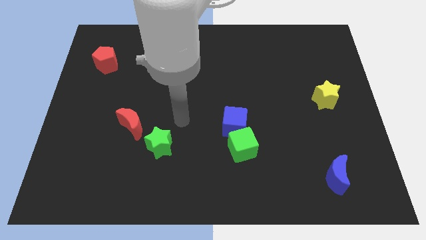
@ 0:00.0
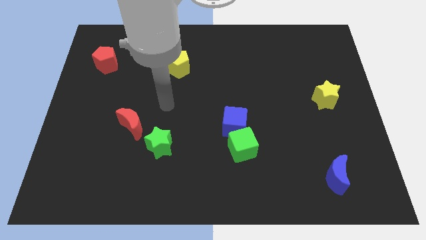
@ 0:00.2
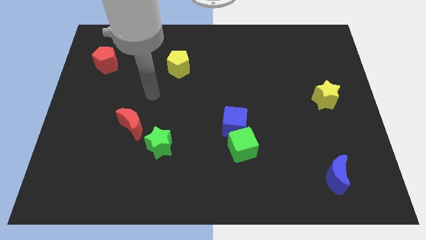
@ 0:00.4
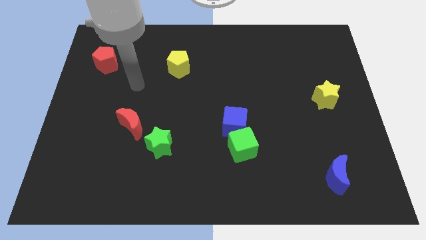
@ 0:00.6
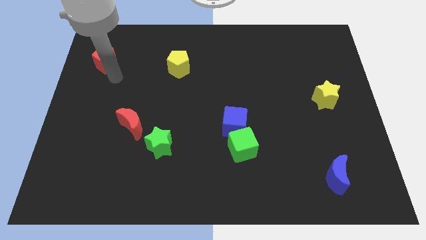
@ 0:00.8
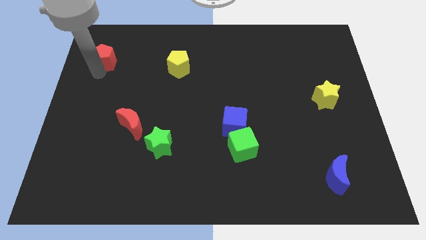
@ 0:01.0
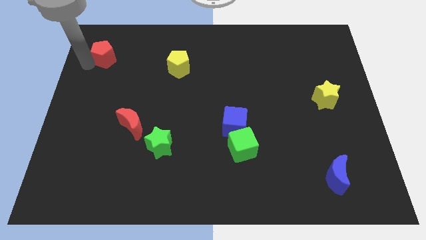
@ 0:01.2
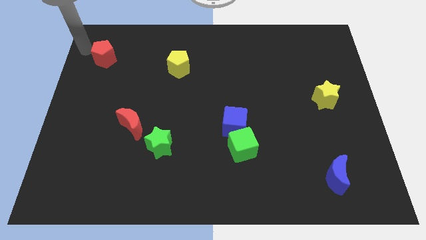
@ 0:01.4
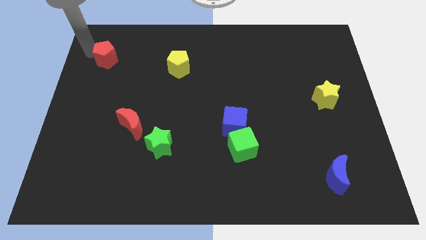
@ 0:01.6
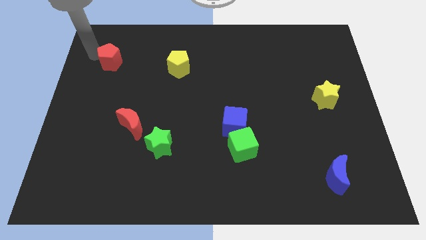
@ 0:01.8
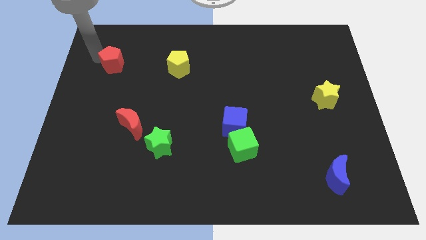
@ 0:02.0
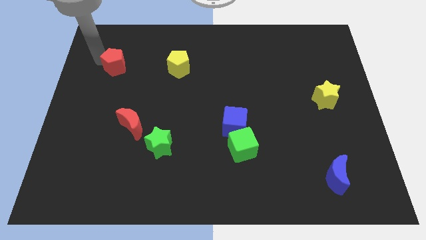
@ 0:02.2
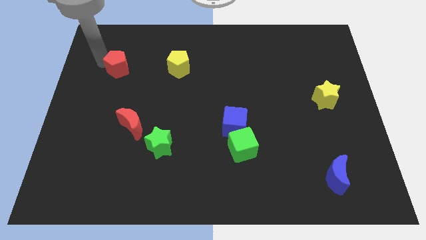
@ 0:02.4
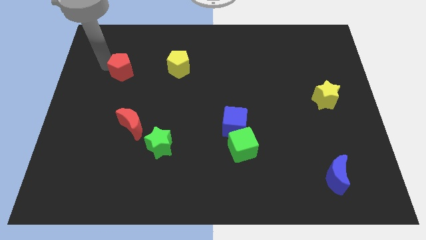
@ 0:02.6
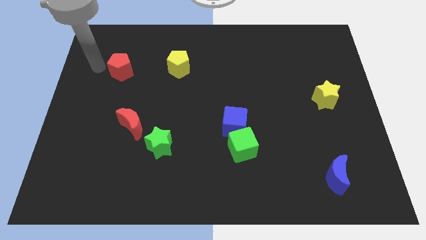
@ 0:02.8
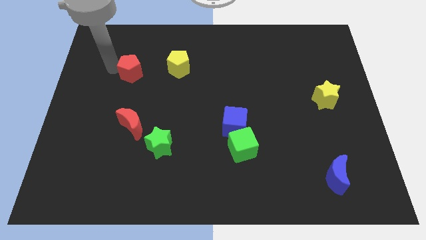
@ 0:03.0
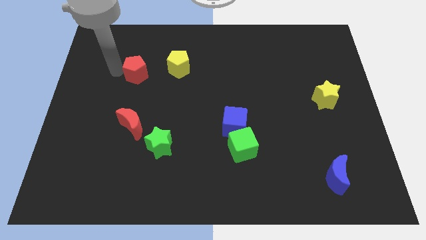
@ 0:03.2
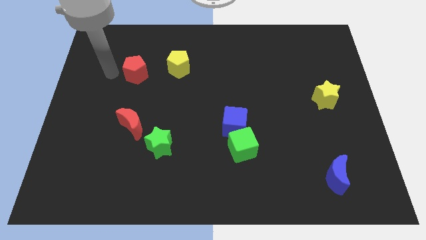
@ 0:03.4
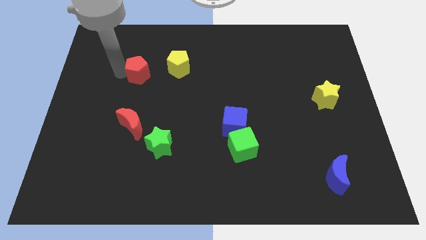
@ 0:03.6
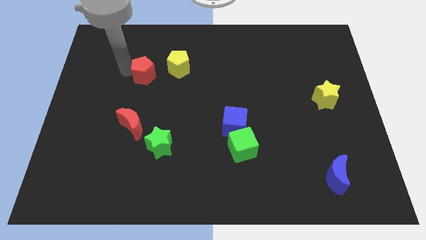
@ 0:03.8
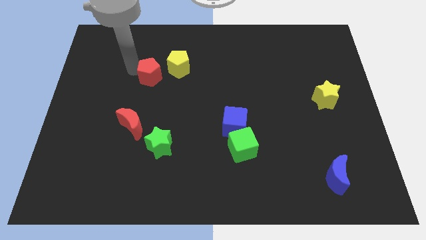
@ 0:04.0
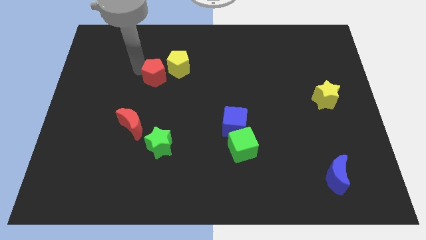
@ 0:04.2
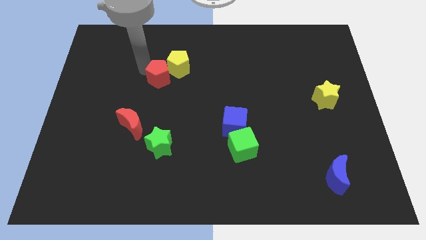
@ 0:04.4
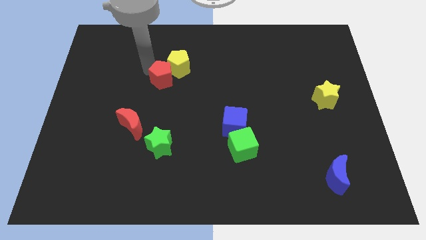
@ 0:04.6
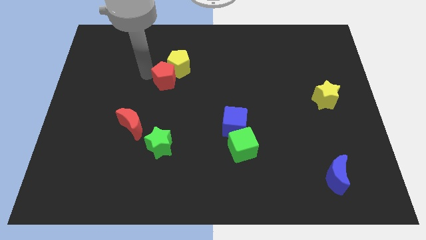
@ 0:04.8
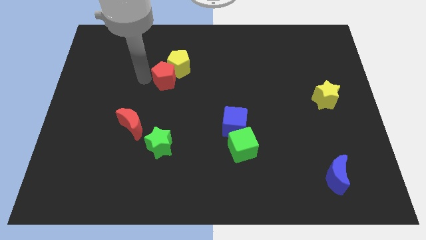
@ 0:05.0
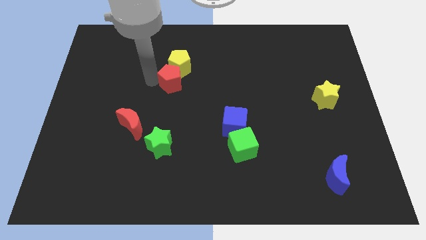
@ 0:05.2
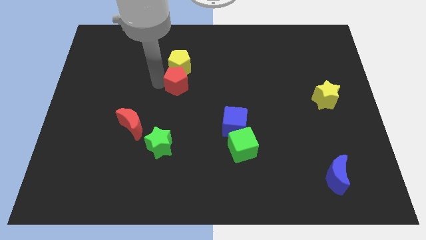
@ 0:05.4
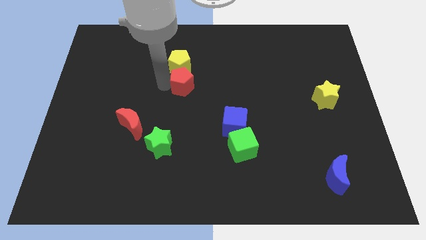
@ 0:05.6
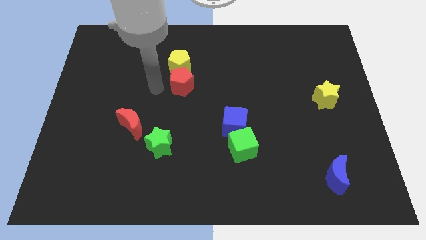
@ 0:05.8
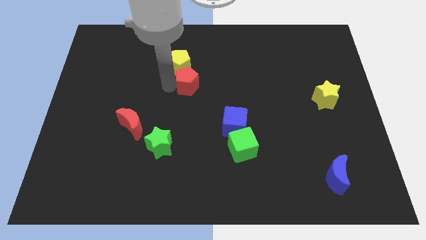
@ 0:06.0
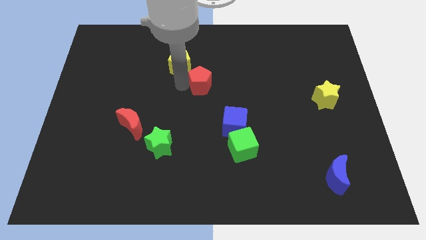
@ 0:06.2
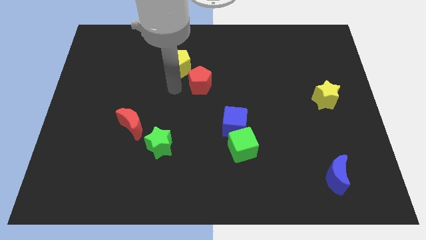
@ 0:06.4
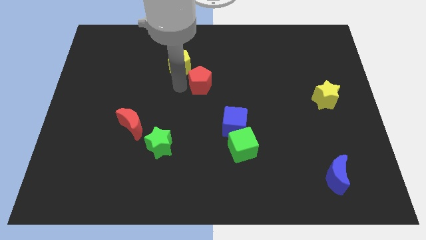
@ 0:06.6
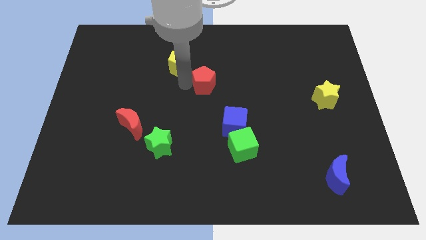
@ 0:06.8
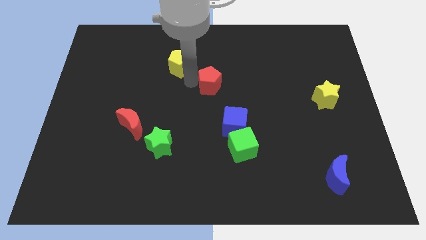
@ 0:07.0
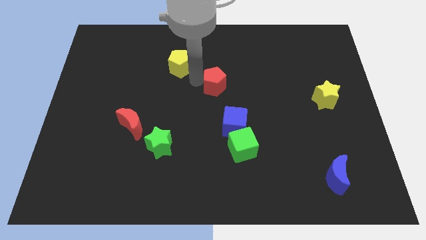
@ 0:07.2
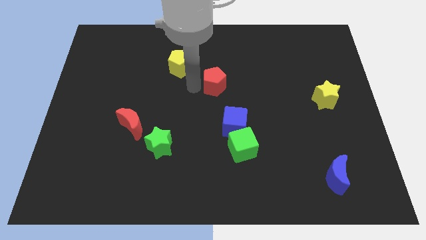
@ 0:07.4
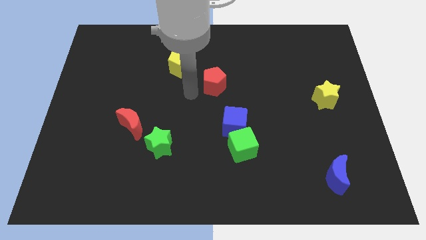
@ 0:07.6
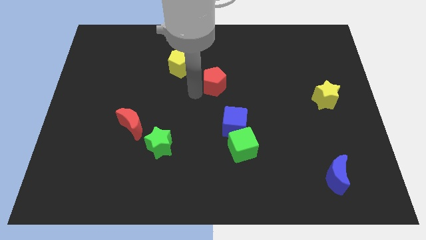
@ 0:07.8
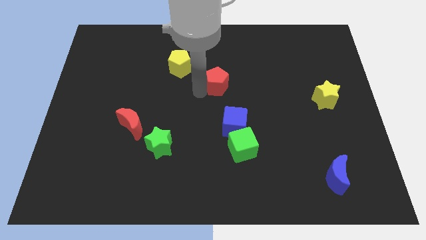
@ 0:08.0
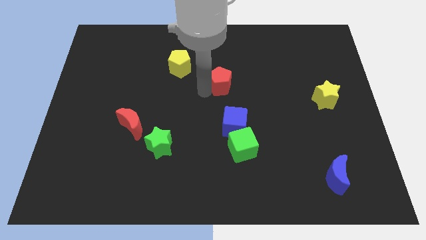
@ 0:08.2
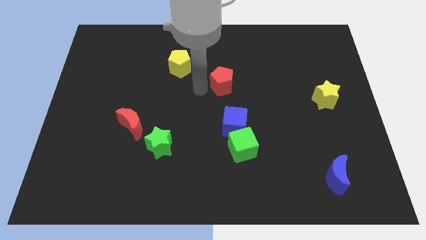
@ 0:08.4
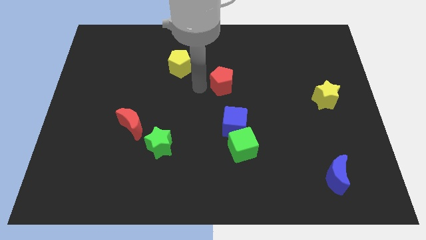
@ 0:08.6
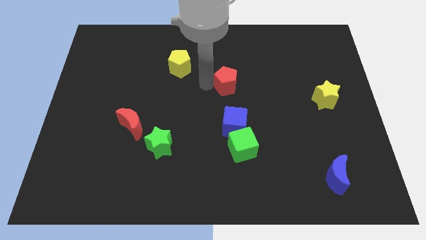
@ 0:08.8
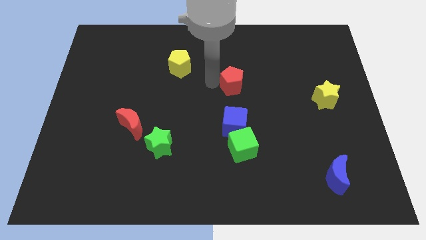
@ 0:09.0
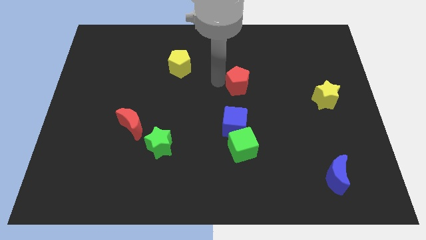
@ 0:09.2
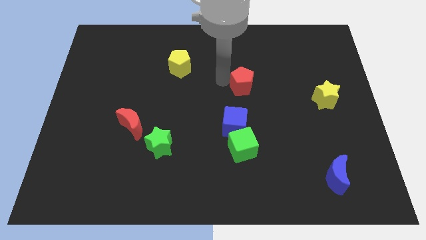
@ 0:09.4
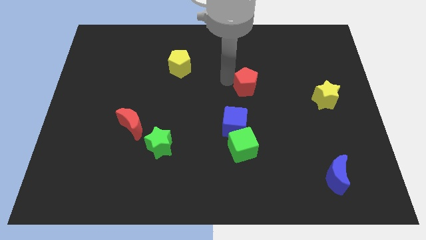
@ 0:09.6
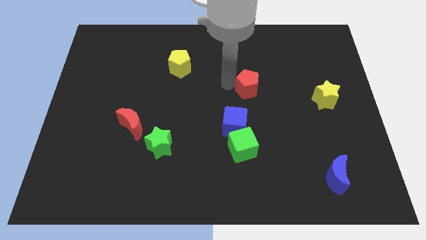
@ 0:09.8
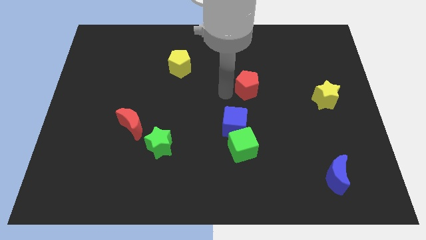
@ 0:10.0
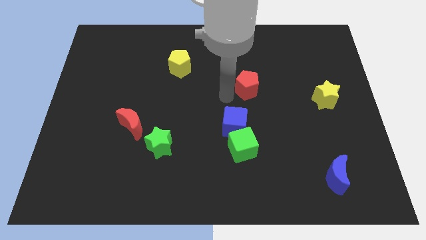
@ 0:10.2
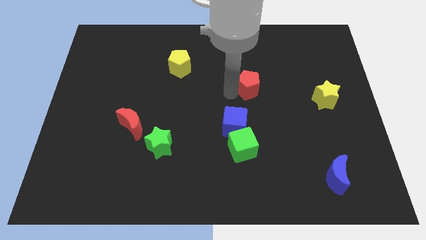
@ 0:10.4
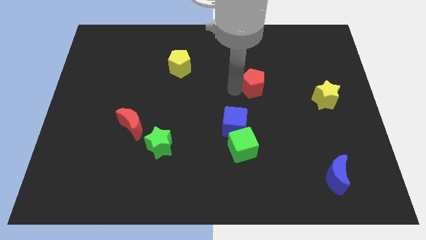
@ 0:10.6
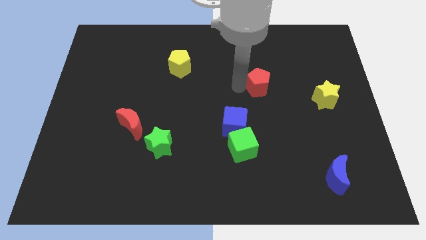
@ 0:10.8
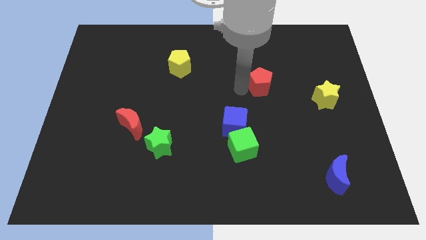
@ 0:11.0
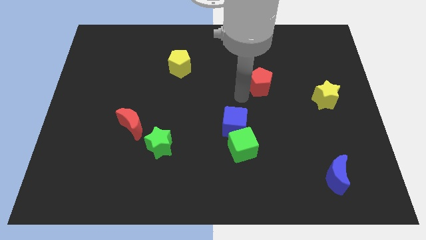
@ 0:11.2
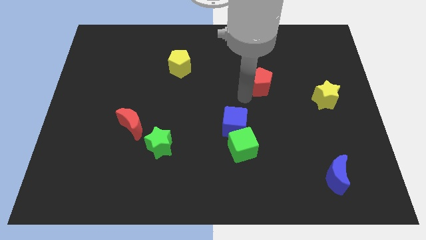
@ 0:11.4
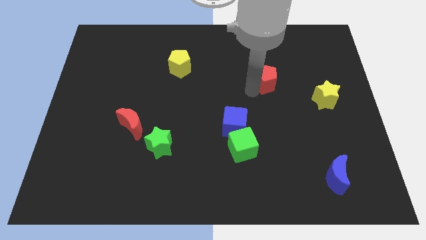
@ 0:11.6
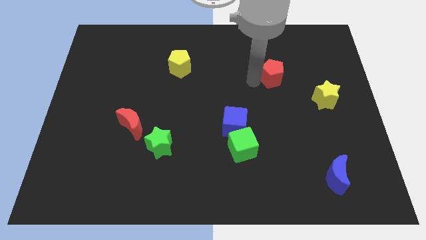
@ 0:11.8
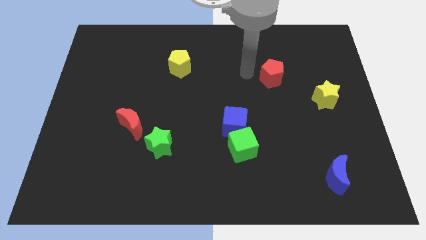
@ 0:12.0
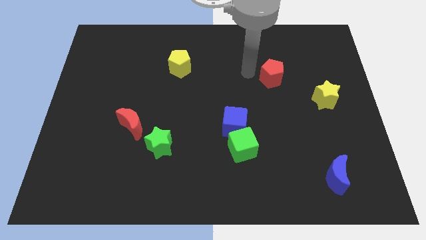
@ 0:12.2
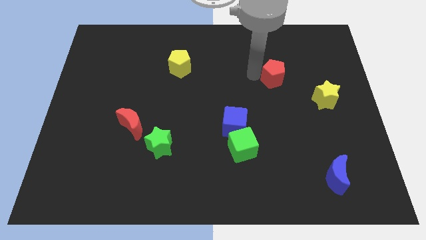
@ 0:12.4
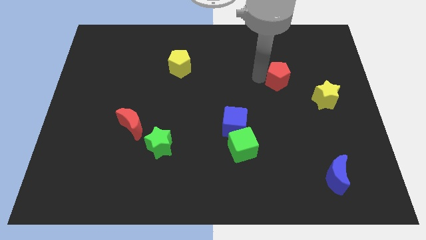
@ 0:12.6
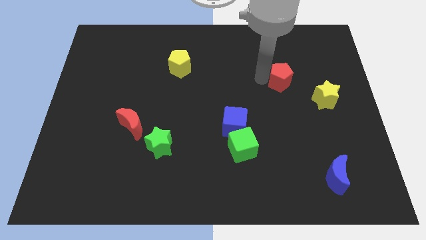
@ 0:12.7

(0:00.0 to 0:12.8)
put the red pentagon to the top left of the yellow star
